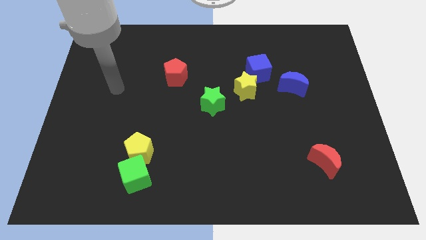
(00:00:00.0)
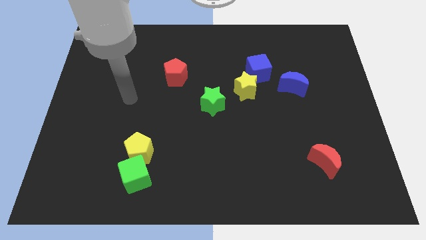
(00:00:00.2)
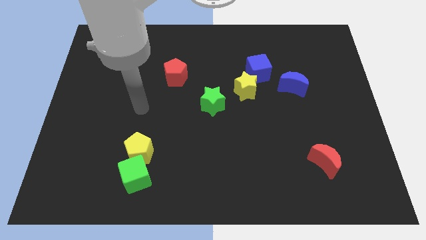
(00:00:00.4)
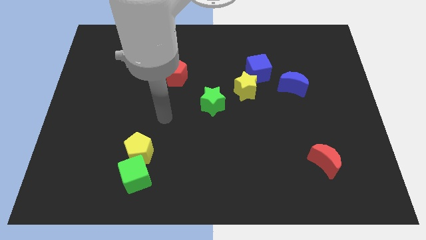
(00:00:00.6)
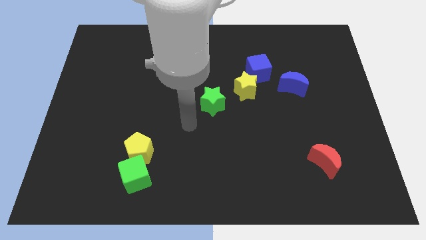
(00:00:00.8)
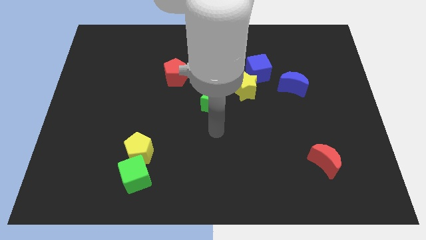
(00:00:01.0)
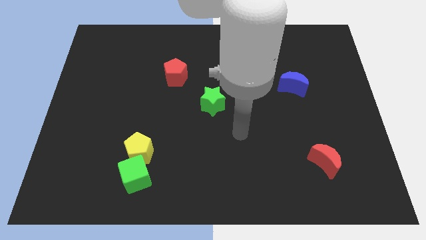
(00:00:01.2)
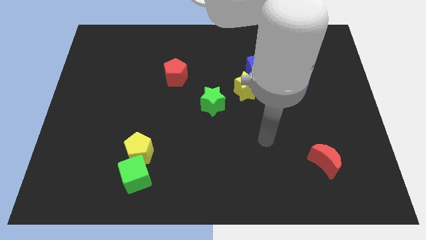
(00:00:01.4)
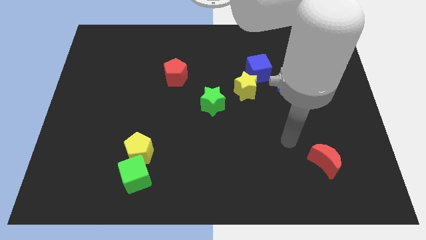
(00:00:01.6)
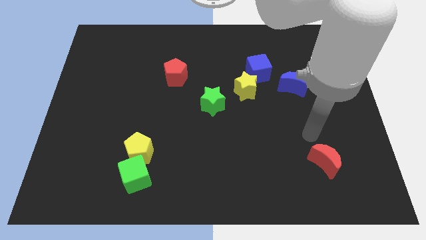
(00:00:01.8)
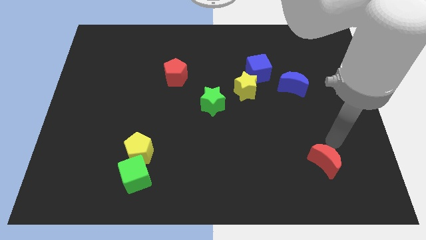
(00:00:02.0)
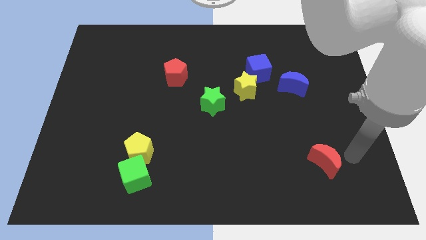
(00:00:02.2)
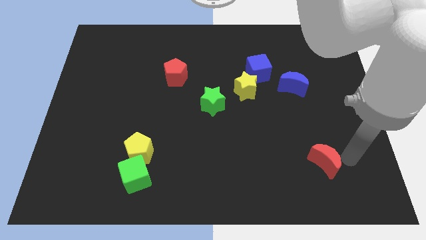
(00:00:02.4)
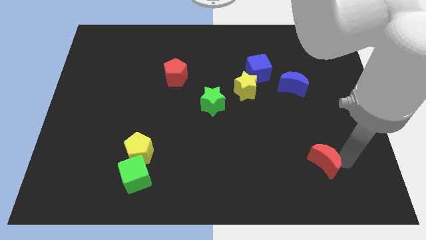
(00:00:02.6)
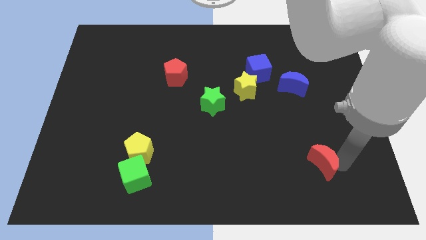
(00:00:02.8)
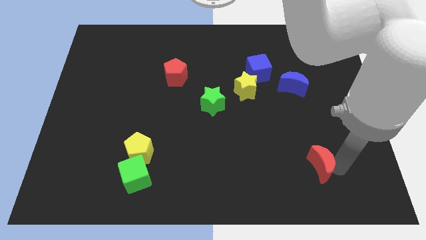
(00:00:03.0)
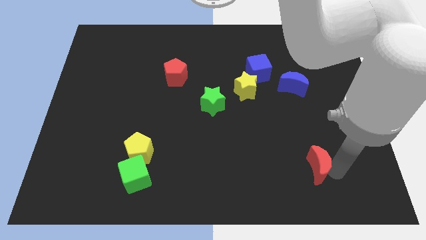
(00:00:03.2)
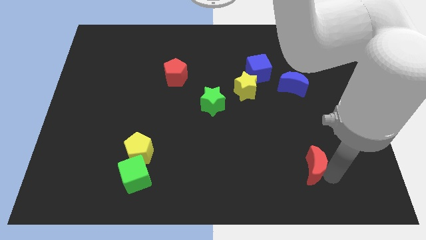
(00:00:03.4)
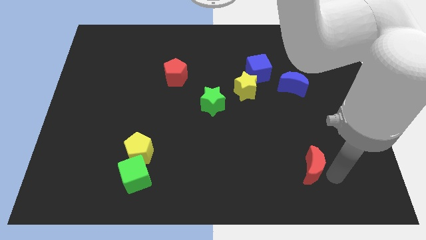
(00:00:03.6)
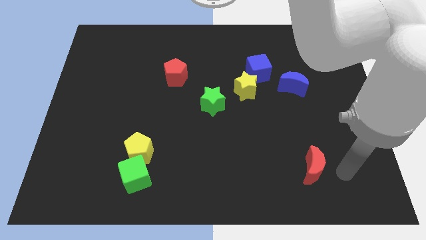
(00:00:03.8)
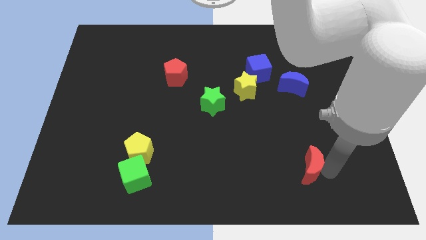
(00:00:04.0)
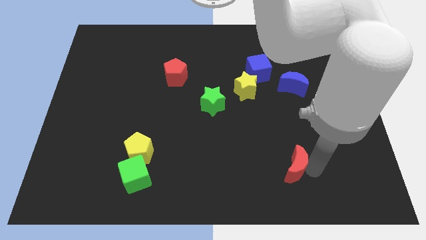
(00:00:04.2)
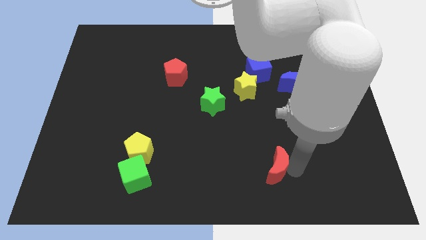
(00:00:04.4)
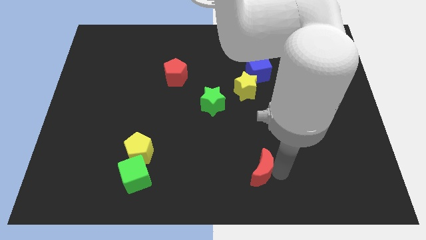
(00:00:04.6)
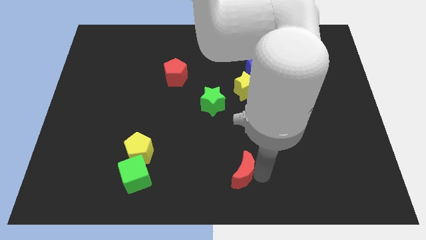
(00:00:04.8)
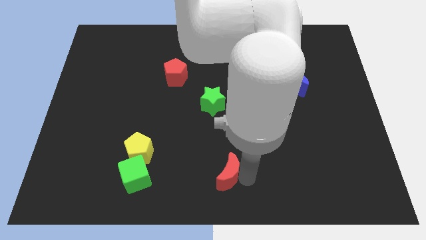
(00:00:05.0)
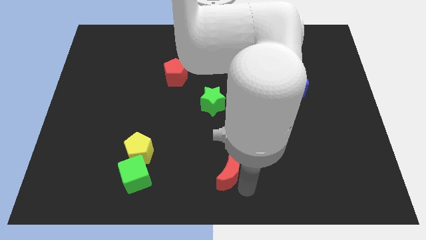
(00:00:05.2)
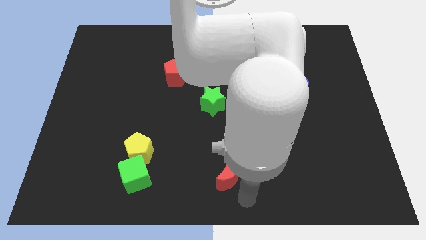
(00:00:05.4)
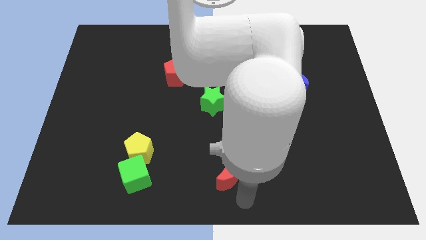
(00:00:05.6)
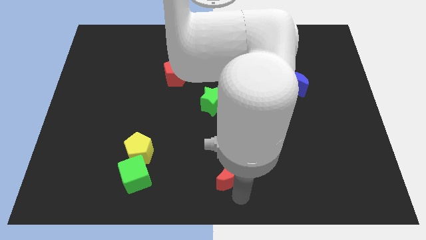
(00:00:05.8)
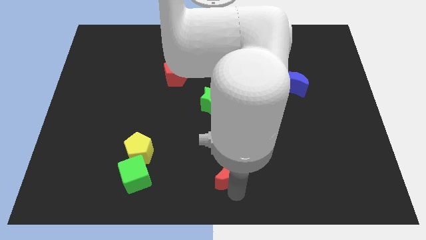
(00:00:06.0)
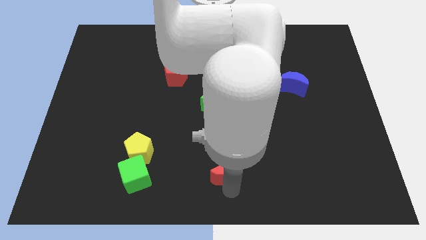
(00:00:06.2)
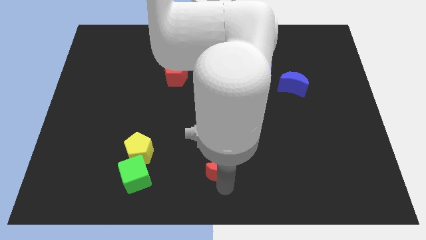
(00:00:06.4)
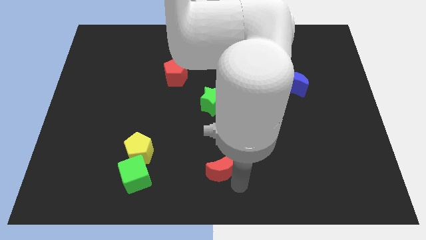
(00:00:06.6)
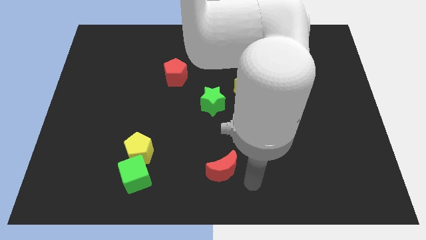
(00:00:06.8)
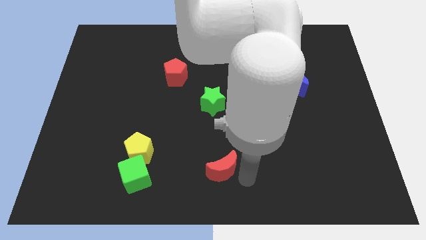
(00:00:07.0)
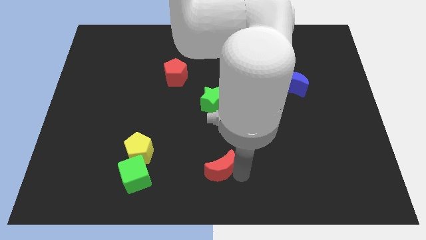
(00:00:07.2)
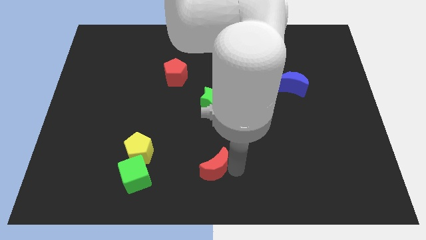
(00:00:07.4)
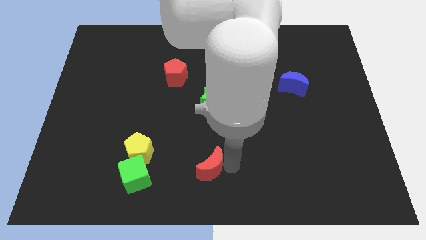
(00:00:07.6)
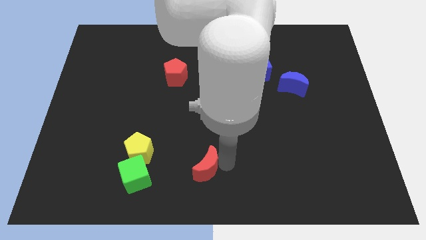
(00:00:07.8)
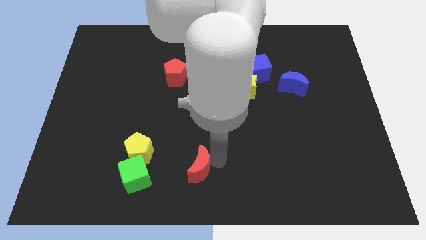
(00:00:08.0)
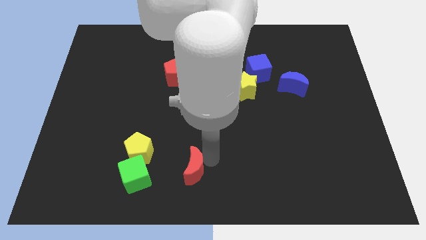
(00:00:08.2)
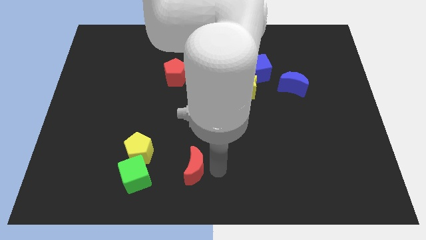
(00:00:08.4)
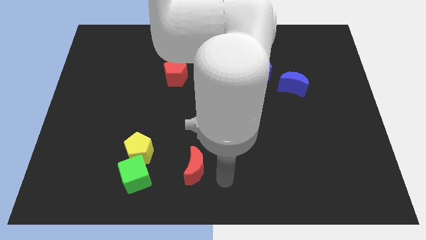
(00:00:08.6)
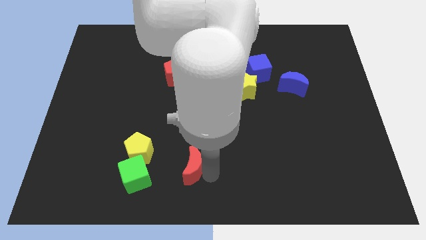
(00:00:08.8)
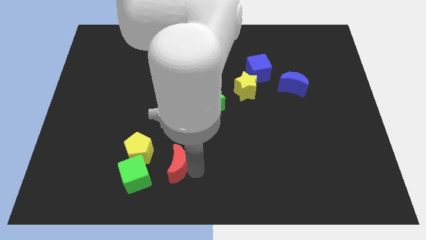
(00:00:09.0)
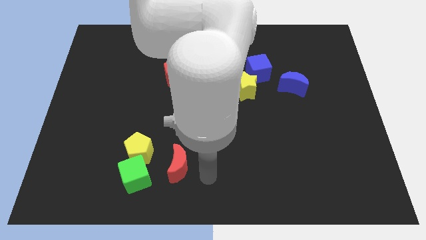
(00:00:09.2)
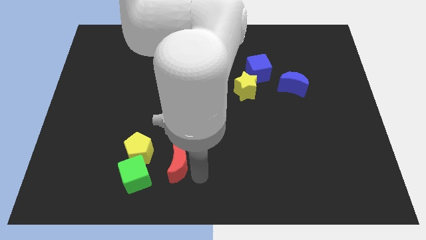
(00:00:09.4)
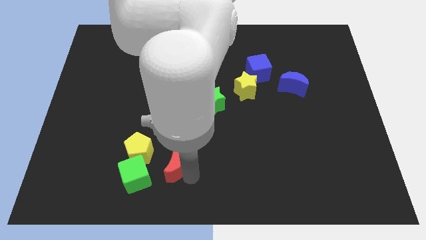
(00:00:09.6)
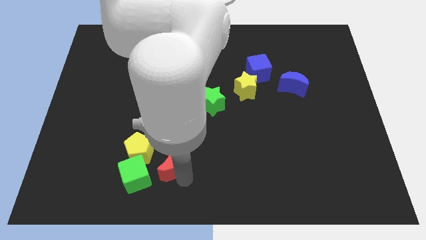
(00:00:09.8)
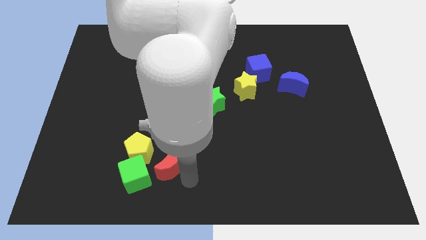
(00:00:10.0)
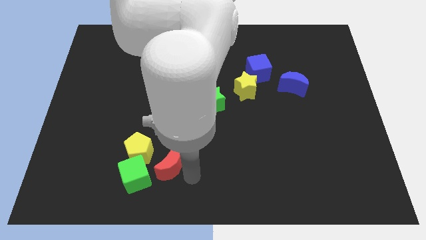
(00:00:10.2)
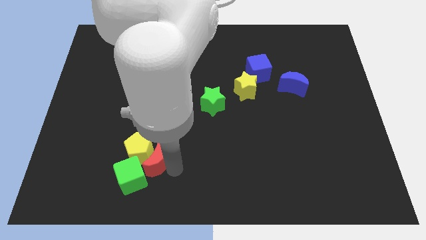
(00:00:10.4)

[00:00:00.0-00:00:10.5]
put the red moon next to the yellow pentagon

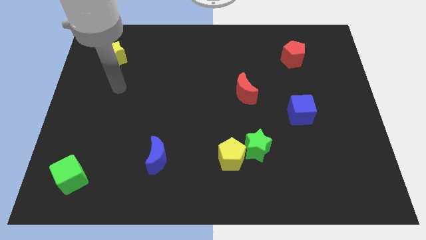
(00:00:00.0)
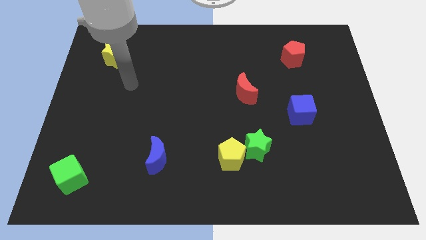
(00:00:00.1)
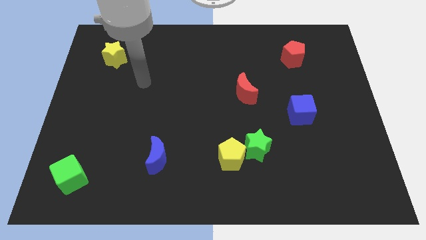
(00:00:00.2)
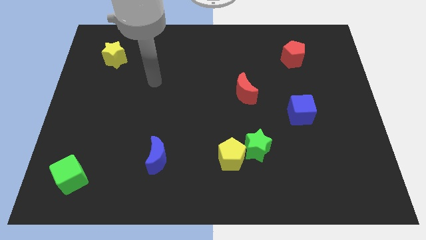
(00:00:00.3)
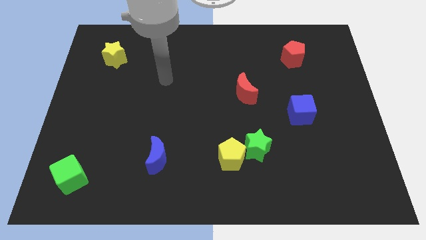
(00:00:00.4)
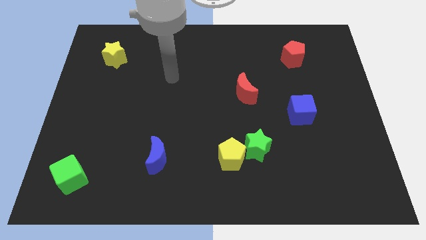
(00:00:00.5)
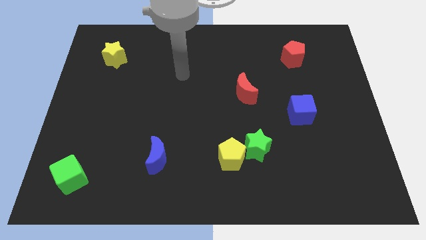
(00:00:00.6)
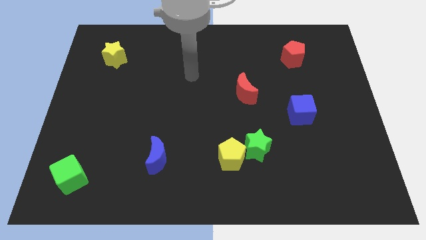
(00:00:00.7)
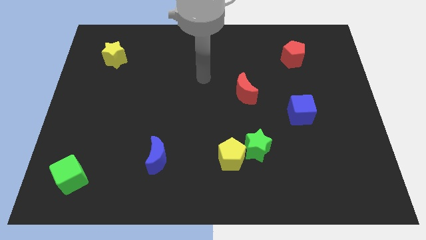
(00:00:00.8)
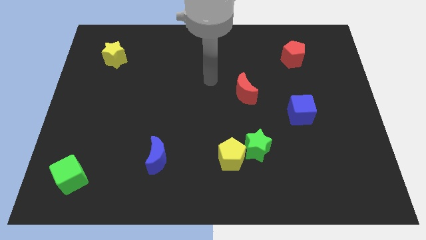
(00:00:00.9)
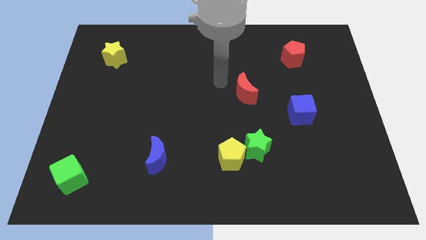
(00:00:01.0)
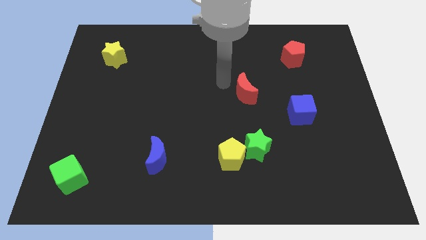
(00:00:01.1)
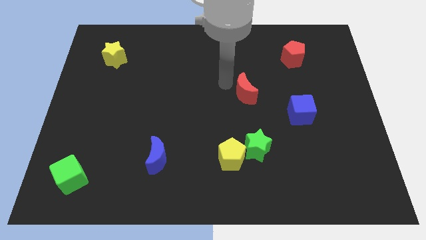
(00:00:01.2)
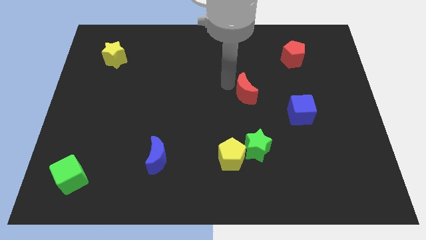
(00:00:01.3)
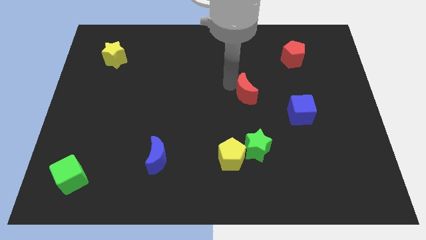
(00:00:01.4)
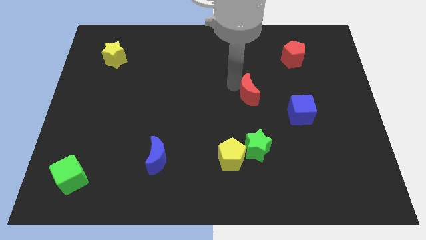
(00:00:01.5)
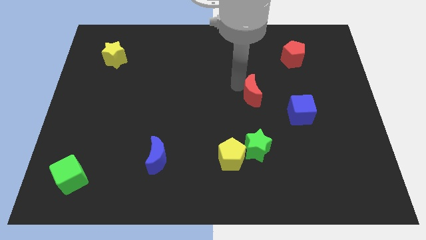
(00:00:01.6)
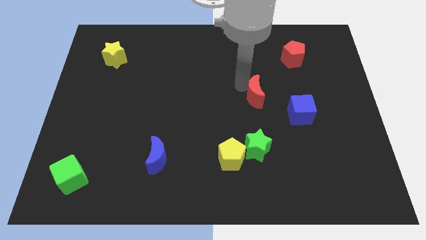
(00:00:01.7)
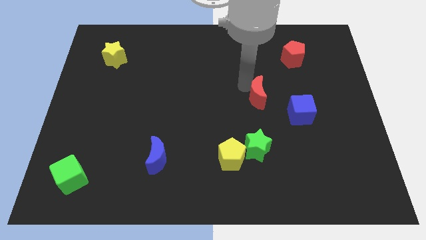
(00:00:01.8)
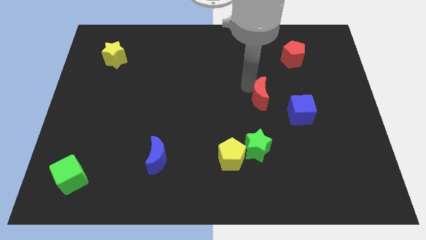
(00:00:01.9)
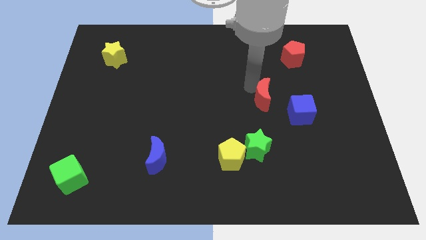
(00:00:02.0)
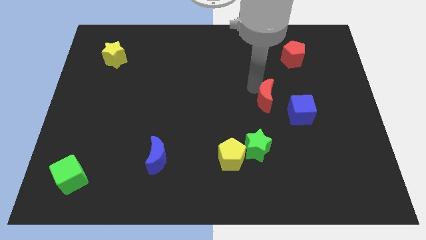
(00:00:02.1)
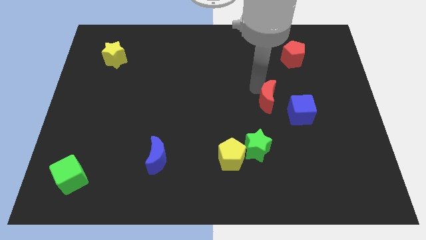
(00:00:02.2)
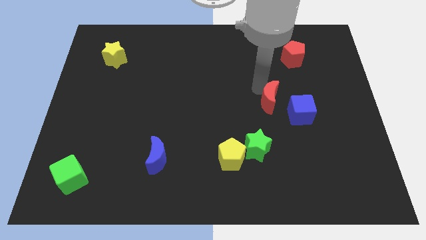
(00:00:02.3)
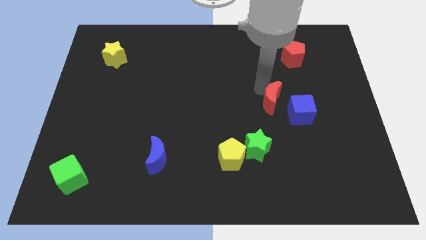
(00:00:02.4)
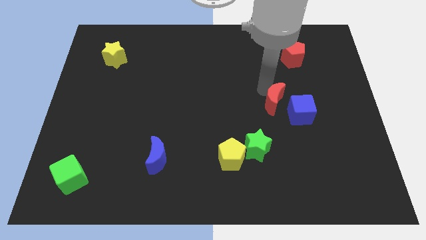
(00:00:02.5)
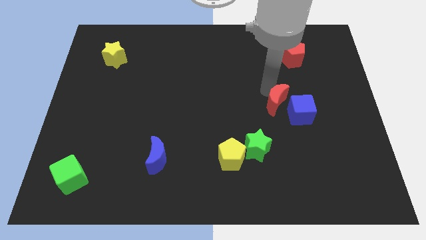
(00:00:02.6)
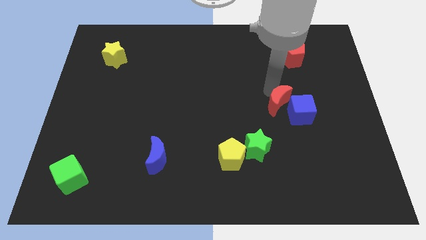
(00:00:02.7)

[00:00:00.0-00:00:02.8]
put the red moon close to the blue cube
